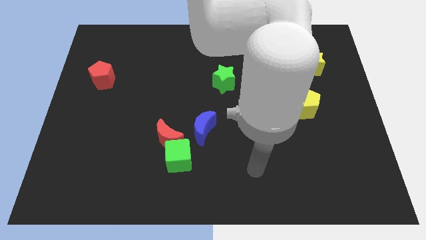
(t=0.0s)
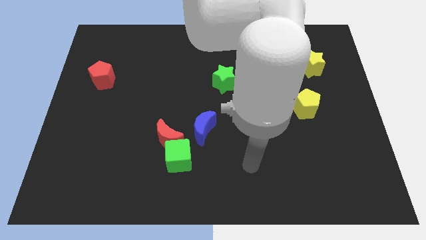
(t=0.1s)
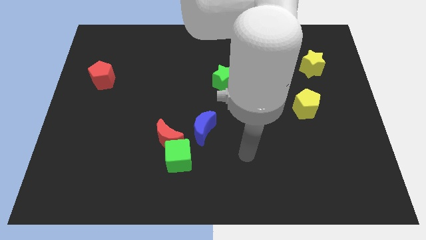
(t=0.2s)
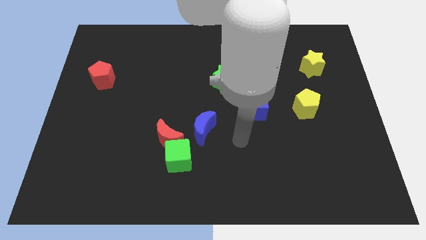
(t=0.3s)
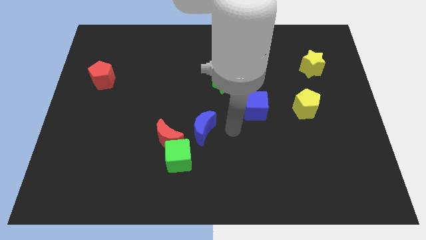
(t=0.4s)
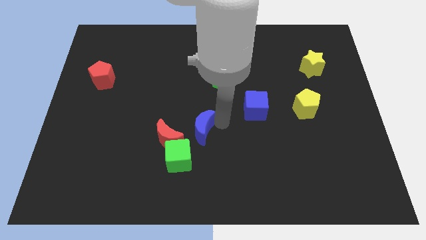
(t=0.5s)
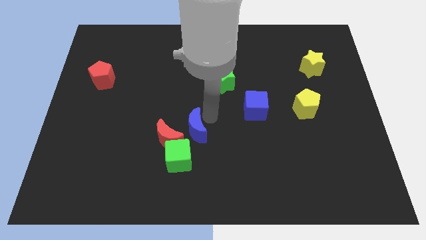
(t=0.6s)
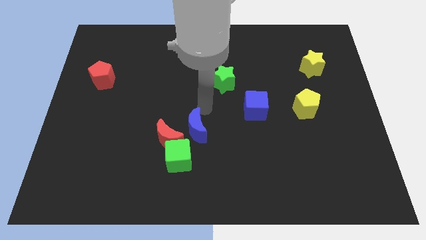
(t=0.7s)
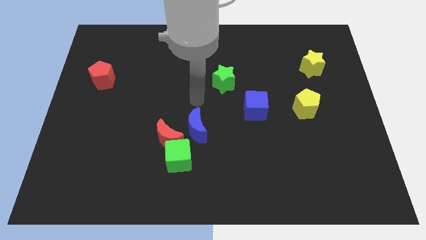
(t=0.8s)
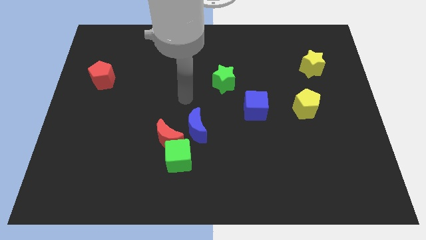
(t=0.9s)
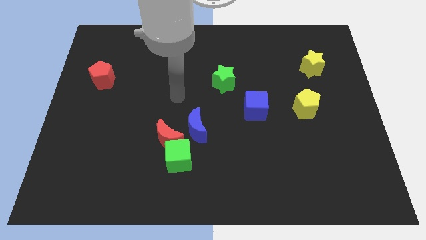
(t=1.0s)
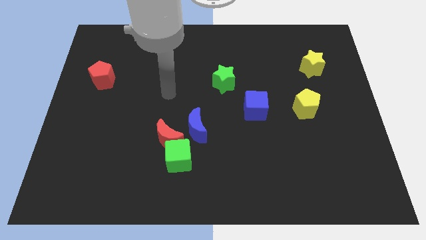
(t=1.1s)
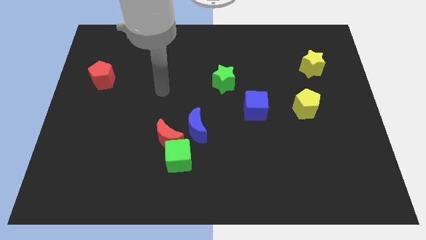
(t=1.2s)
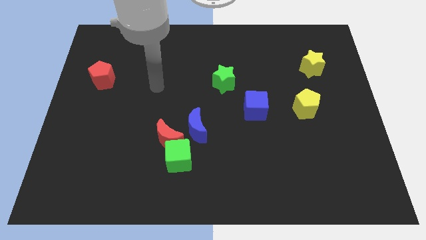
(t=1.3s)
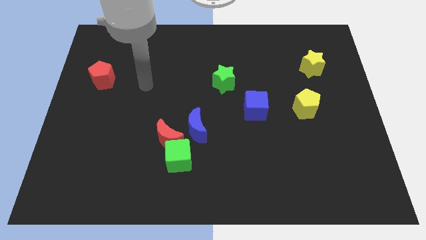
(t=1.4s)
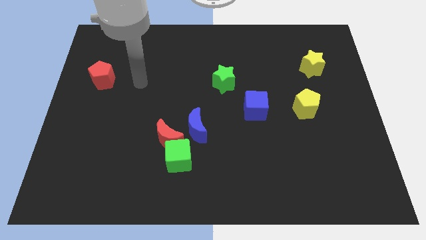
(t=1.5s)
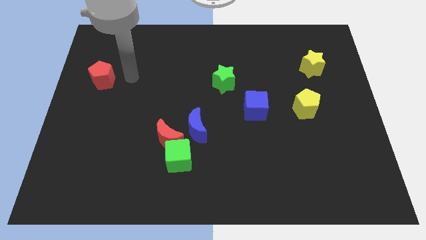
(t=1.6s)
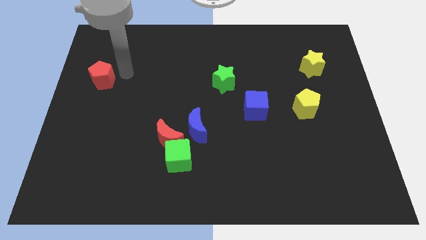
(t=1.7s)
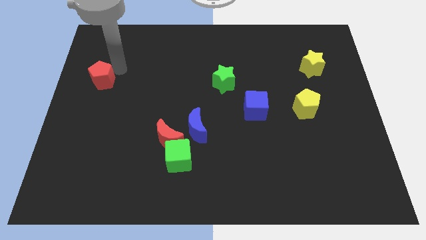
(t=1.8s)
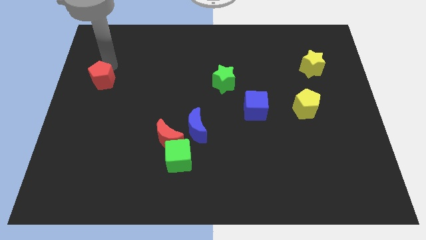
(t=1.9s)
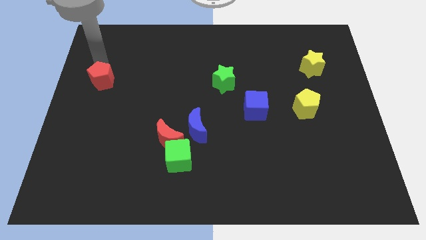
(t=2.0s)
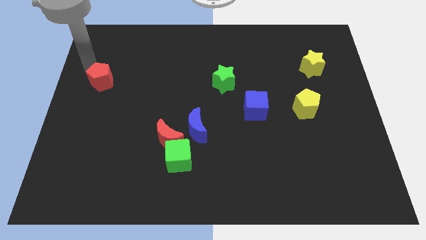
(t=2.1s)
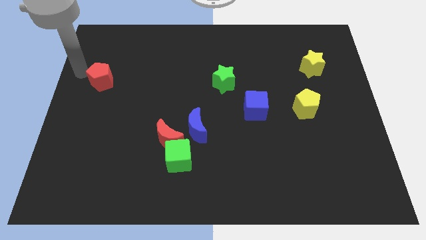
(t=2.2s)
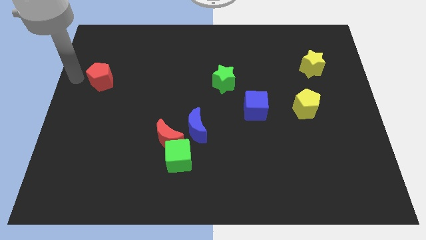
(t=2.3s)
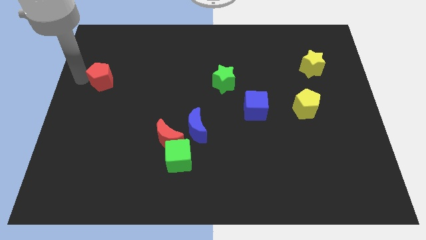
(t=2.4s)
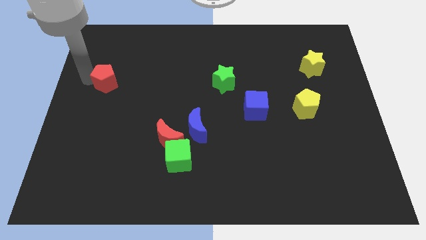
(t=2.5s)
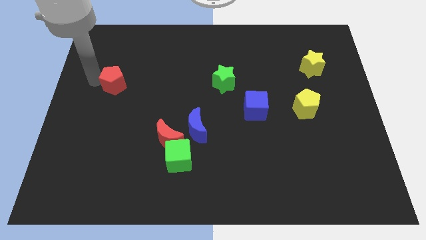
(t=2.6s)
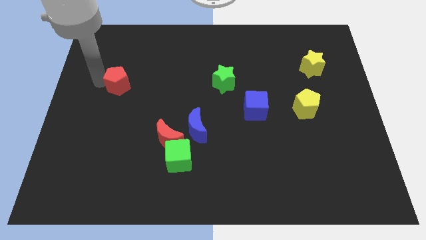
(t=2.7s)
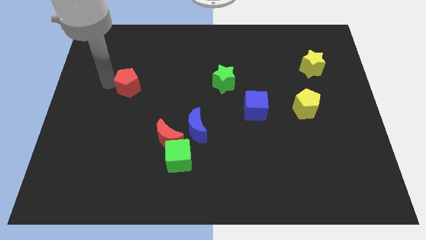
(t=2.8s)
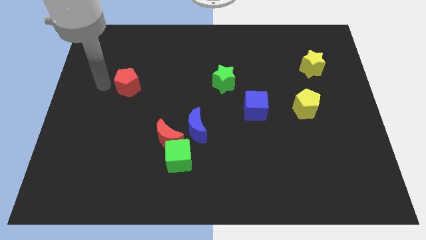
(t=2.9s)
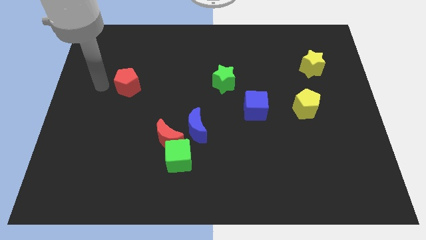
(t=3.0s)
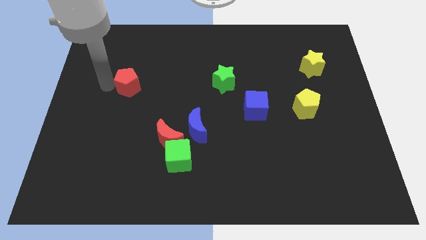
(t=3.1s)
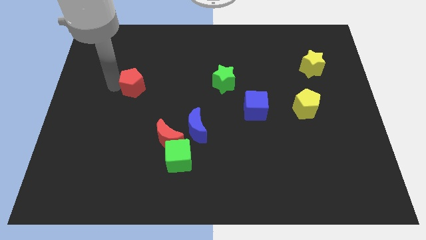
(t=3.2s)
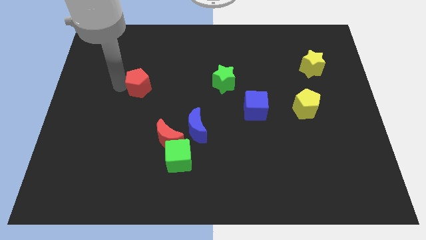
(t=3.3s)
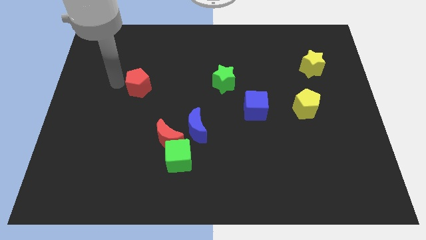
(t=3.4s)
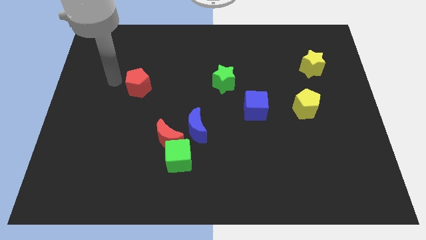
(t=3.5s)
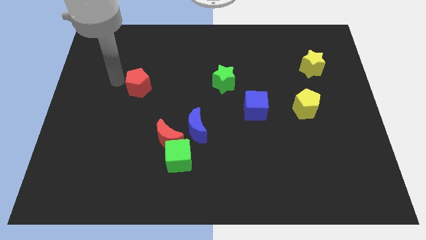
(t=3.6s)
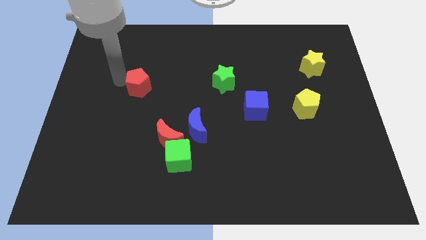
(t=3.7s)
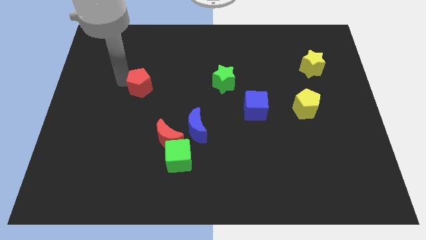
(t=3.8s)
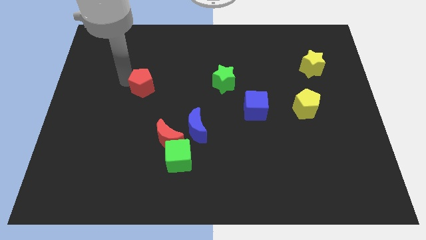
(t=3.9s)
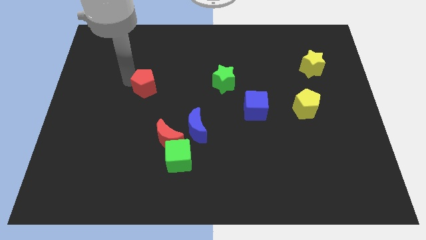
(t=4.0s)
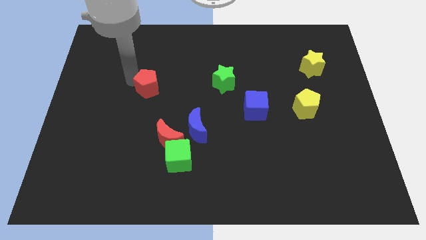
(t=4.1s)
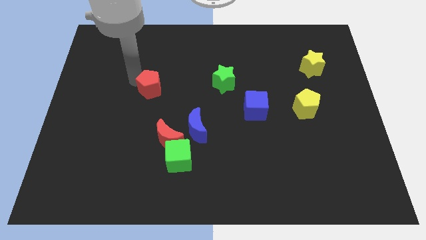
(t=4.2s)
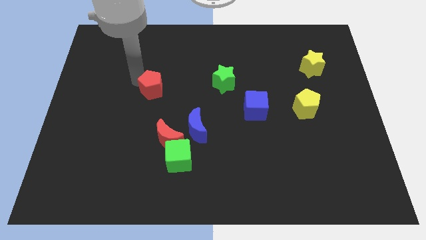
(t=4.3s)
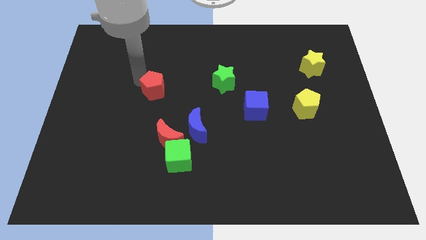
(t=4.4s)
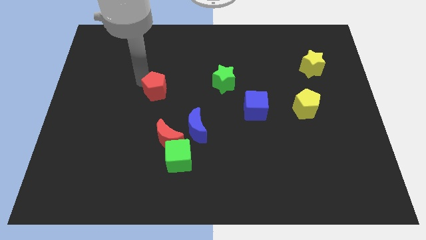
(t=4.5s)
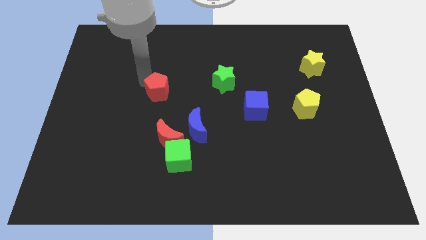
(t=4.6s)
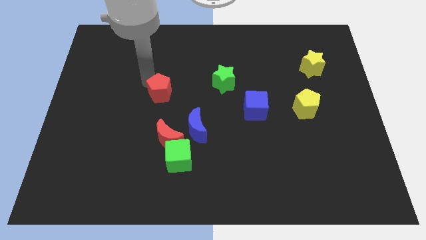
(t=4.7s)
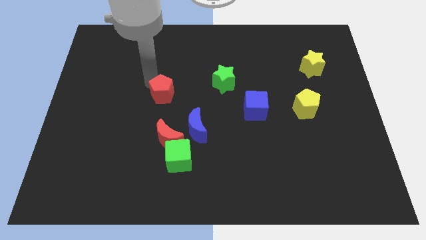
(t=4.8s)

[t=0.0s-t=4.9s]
move the red pentagon to the center

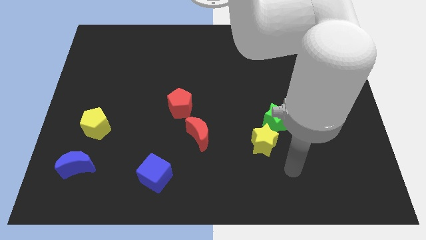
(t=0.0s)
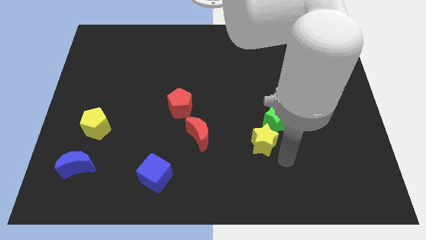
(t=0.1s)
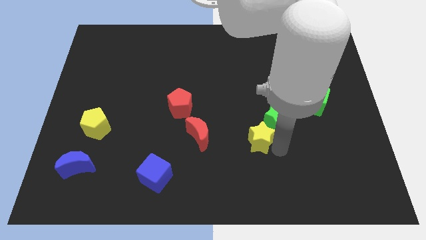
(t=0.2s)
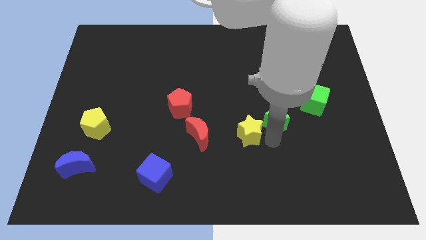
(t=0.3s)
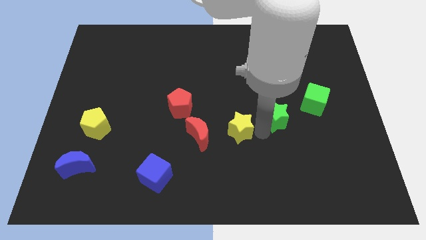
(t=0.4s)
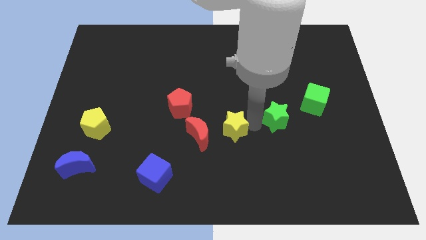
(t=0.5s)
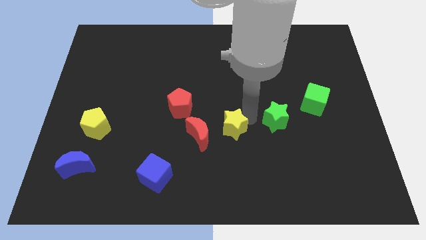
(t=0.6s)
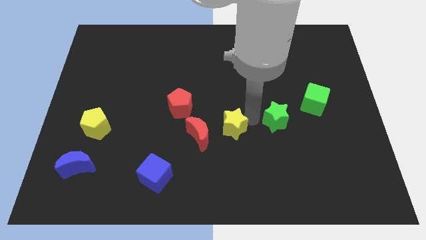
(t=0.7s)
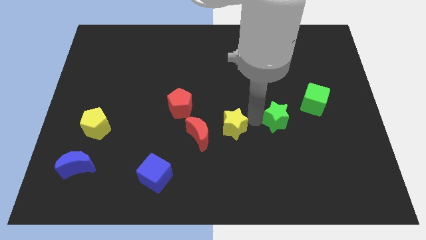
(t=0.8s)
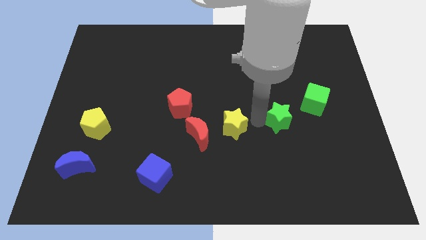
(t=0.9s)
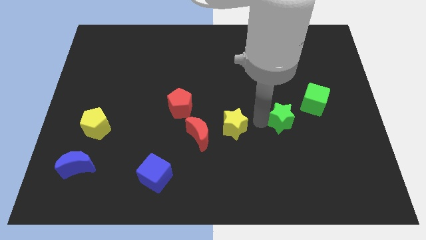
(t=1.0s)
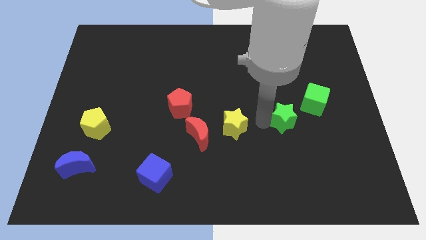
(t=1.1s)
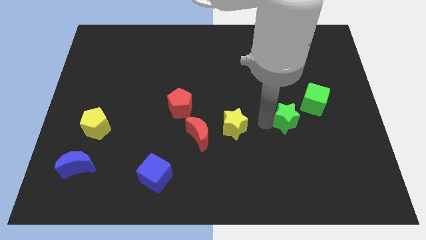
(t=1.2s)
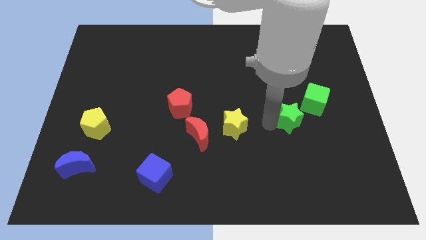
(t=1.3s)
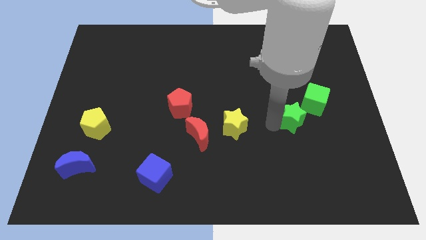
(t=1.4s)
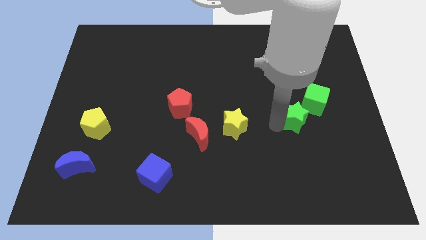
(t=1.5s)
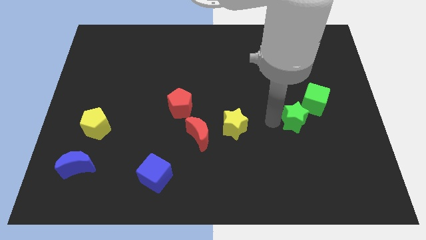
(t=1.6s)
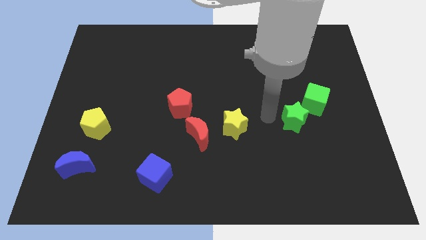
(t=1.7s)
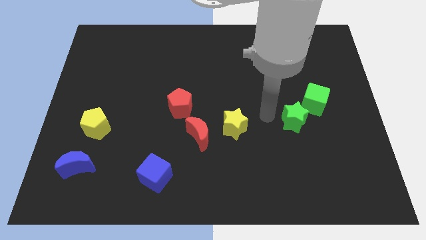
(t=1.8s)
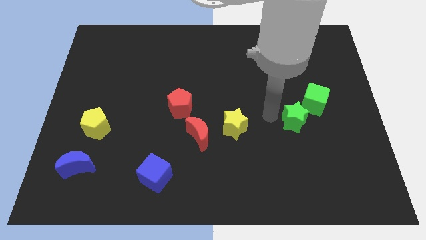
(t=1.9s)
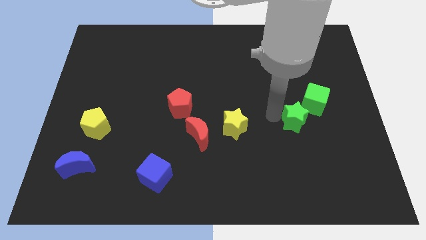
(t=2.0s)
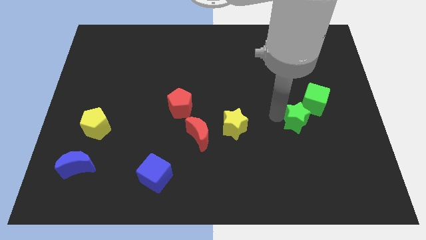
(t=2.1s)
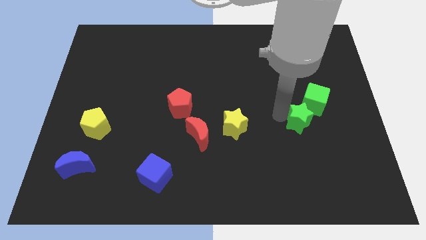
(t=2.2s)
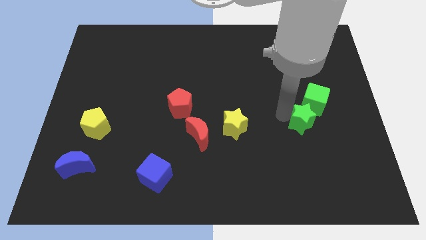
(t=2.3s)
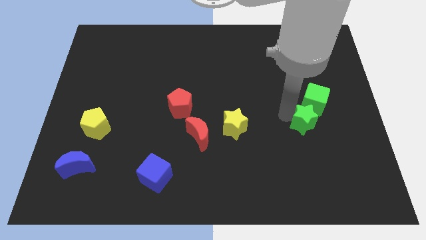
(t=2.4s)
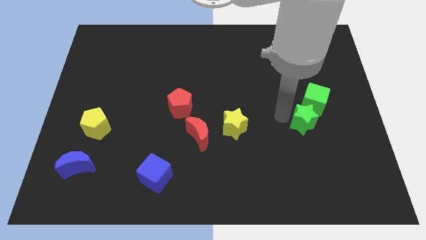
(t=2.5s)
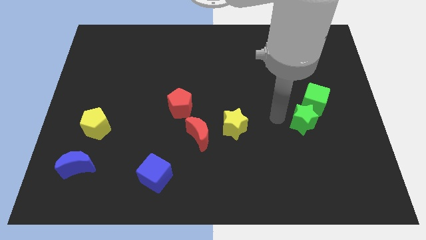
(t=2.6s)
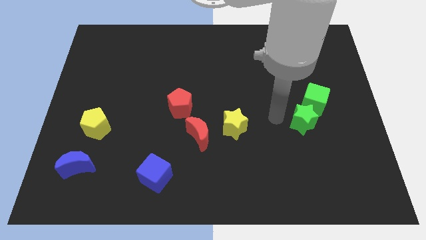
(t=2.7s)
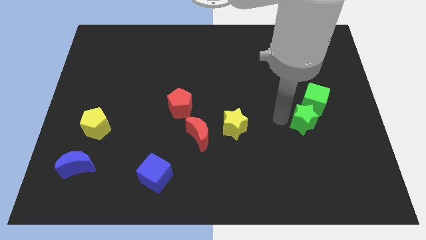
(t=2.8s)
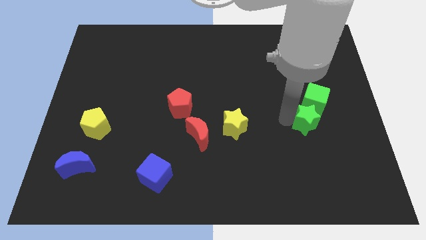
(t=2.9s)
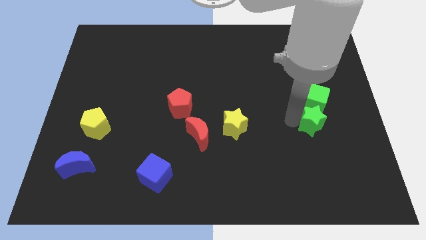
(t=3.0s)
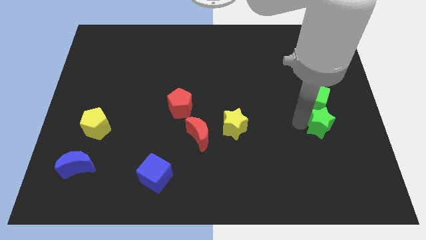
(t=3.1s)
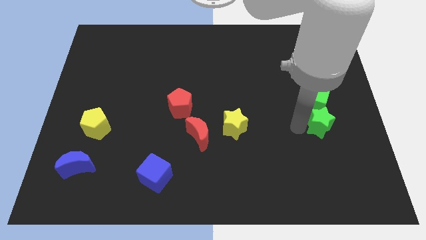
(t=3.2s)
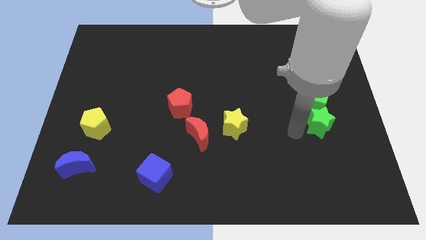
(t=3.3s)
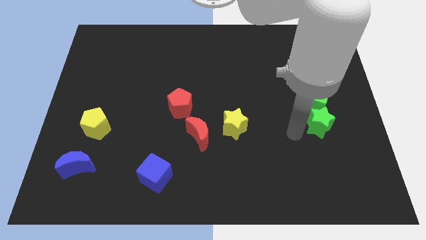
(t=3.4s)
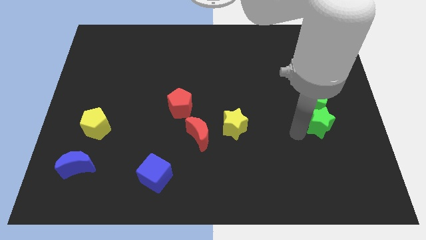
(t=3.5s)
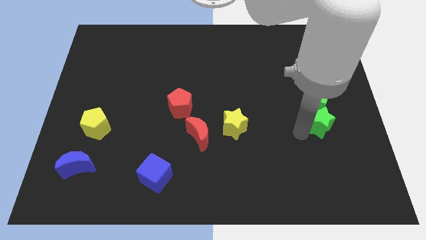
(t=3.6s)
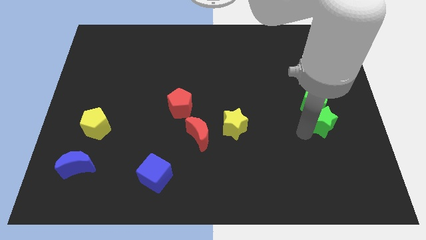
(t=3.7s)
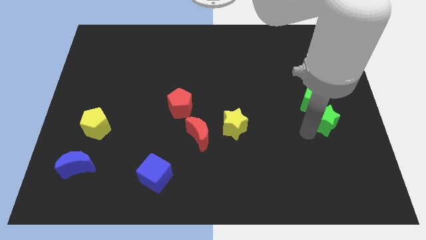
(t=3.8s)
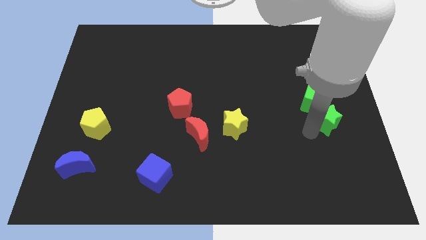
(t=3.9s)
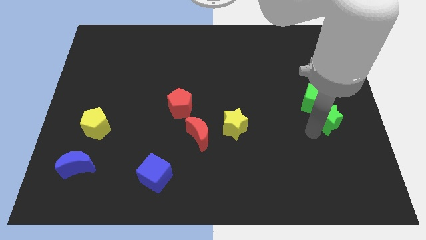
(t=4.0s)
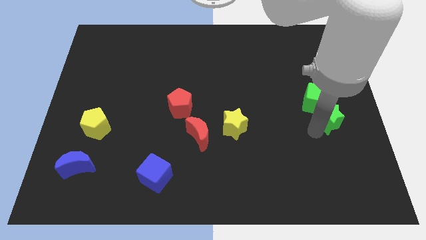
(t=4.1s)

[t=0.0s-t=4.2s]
put the green star to the right side
